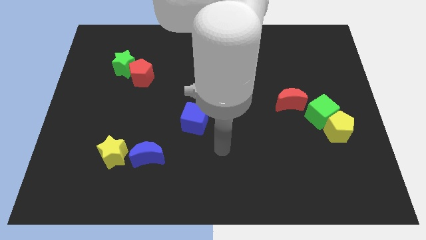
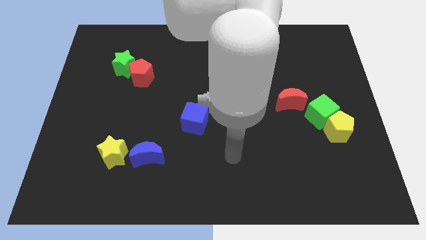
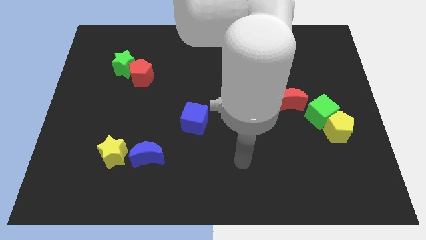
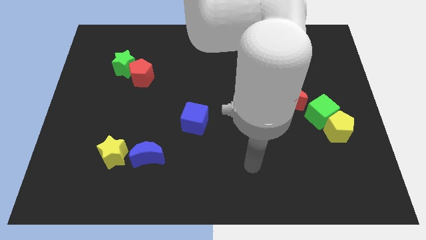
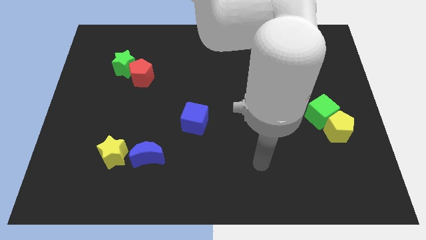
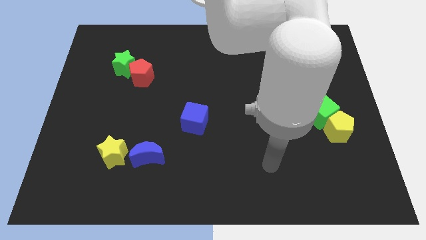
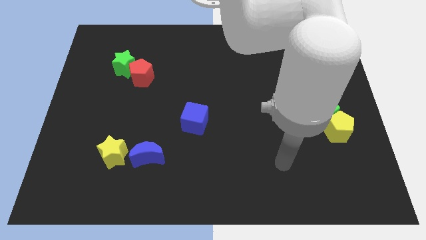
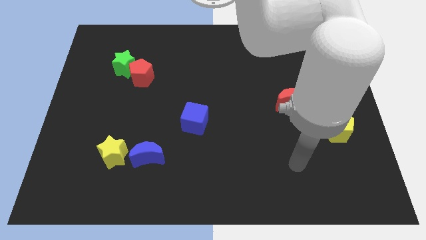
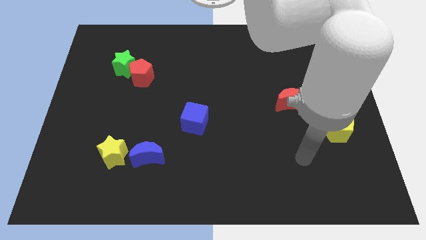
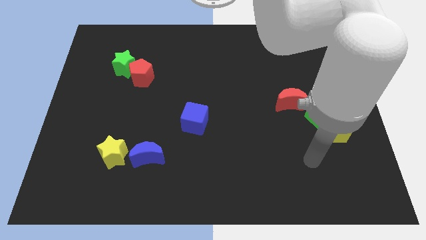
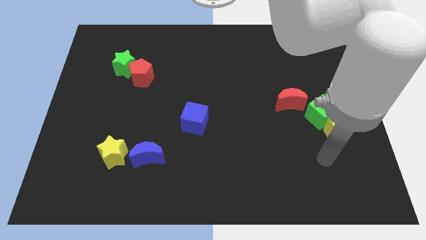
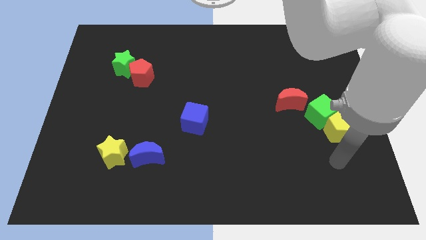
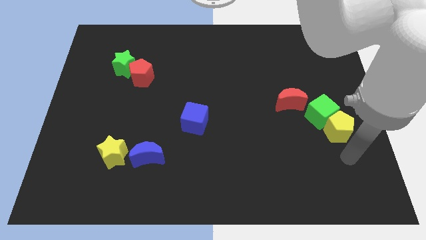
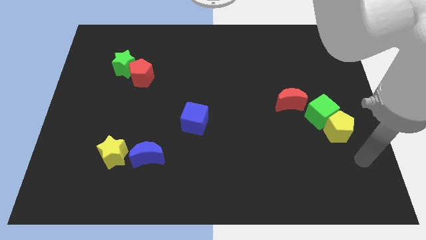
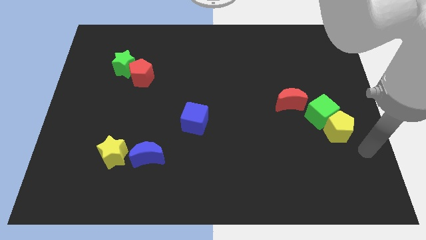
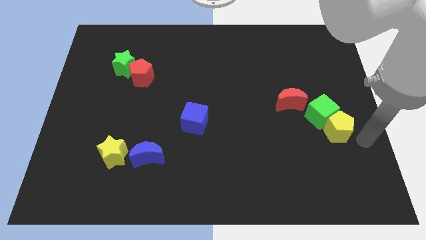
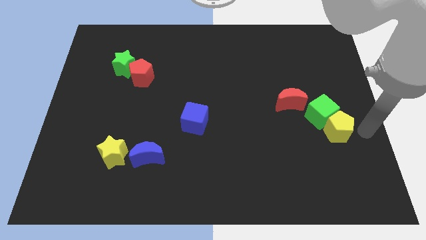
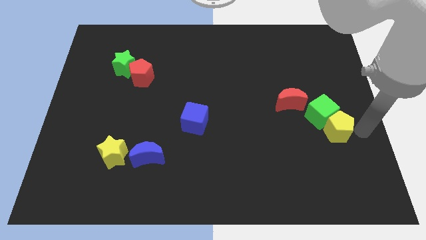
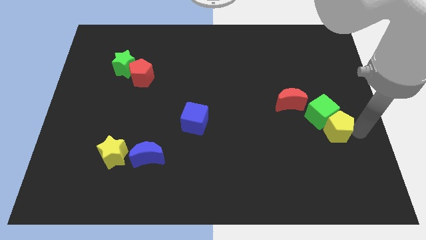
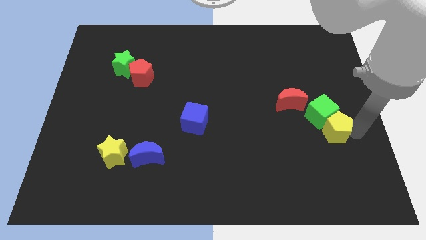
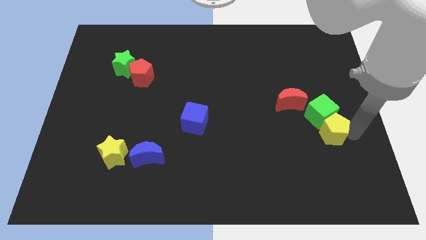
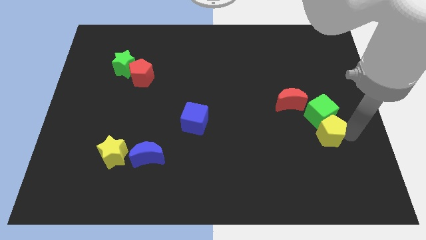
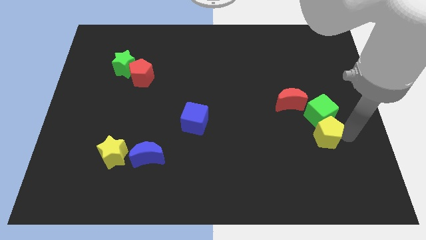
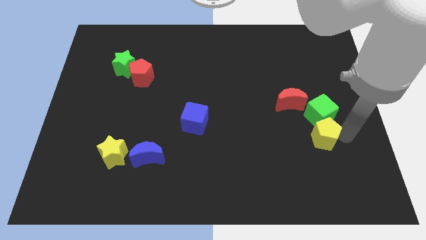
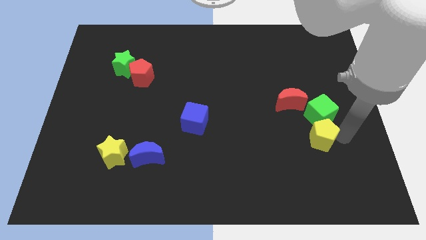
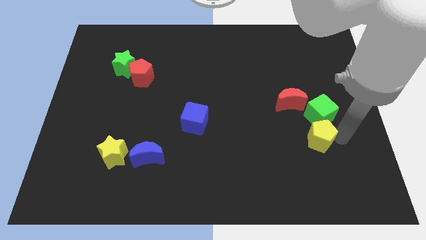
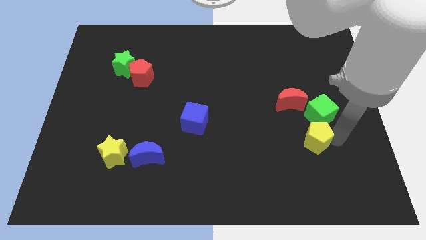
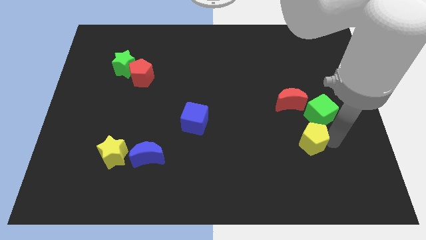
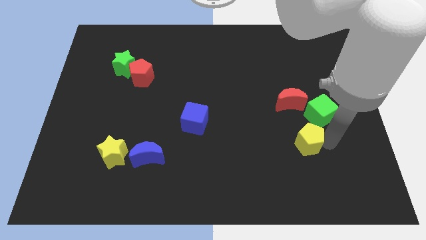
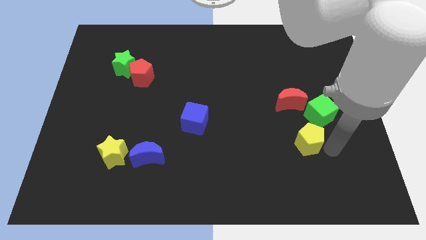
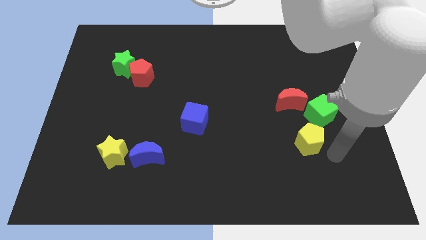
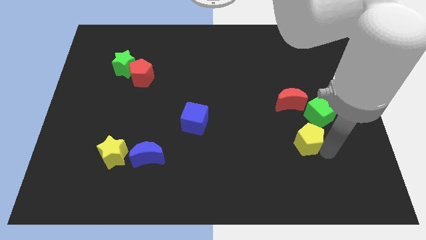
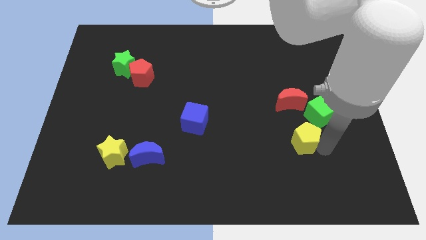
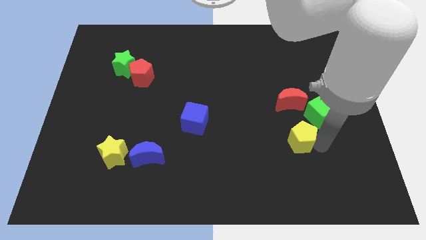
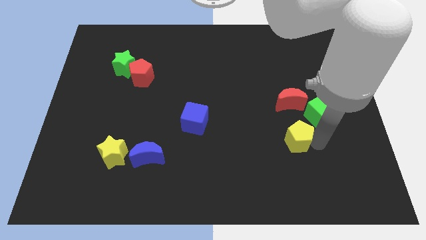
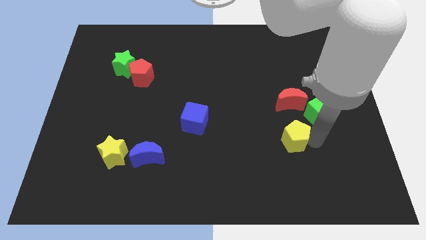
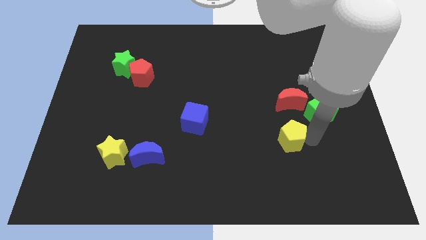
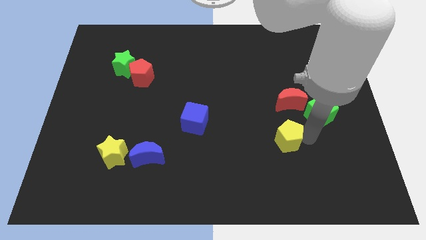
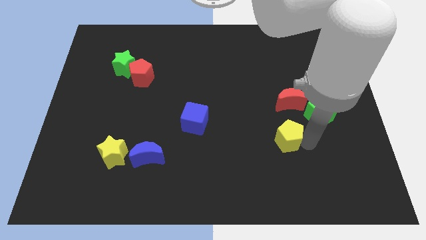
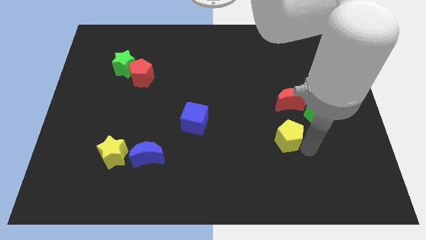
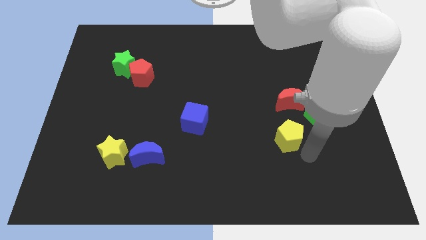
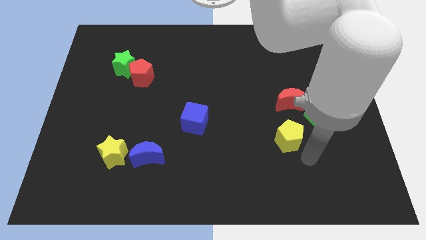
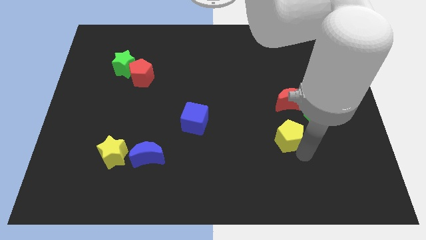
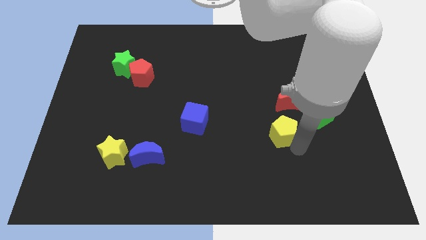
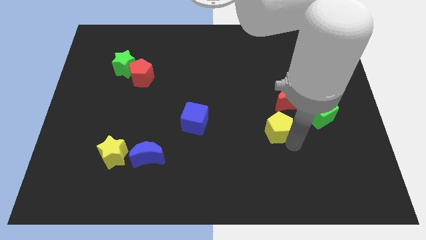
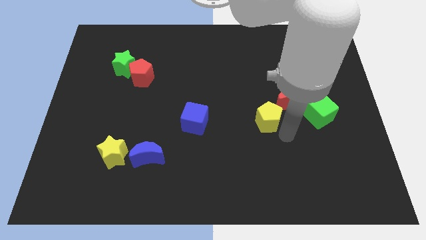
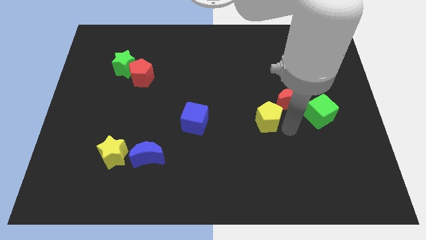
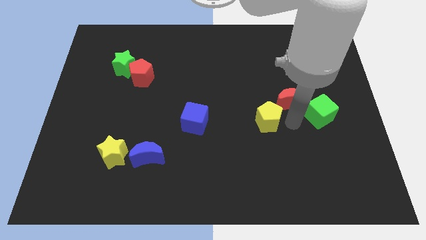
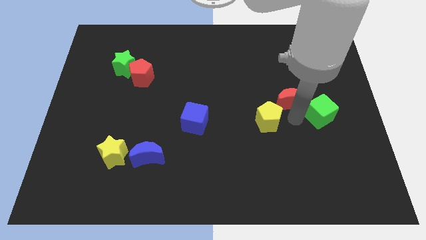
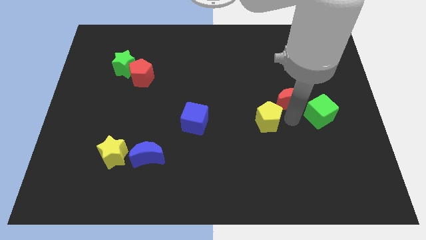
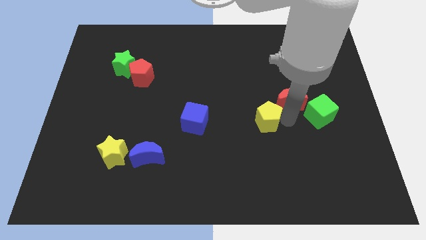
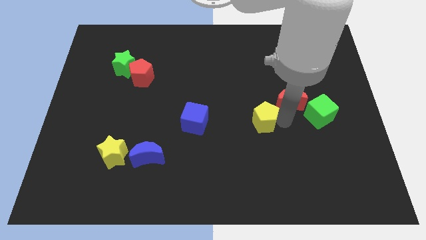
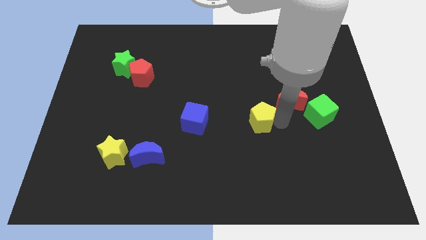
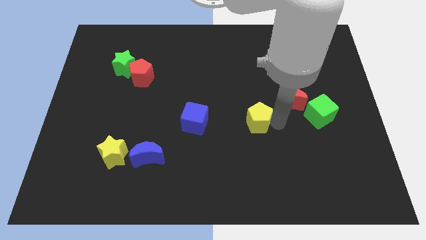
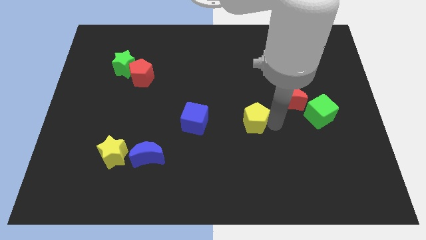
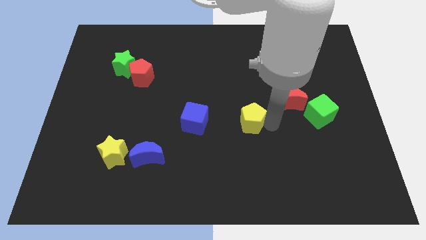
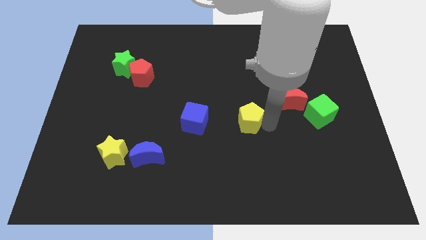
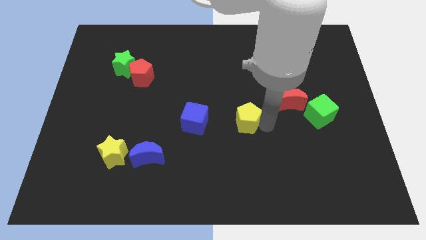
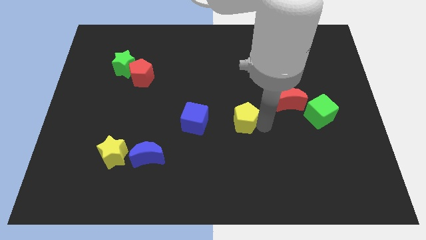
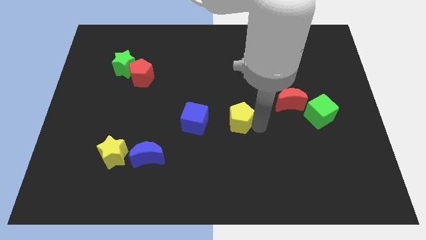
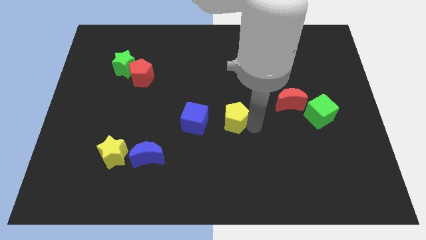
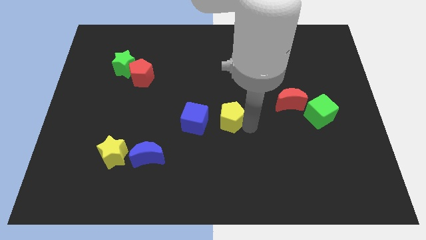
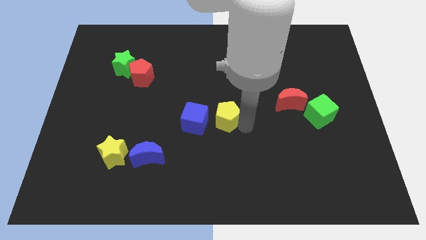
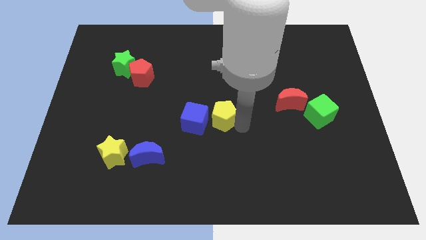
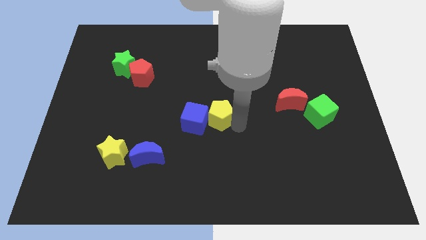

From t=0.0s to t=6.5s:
put the yellow pentagon towards the blue cube
